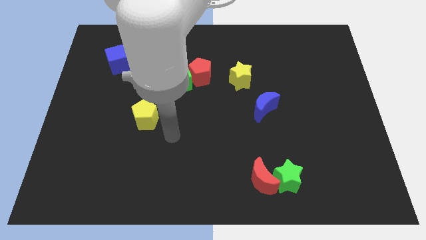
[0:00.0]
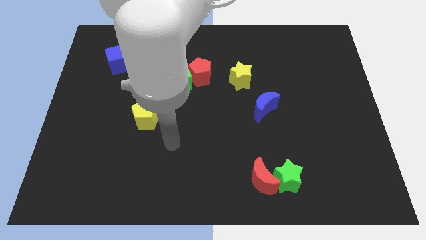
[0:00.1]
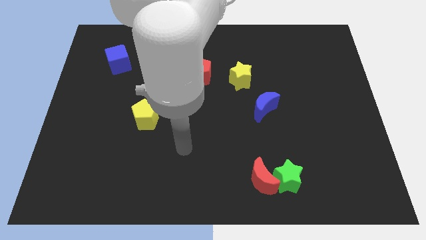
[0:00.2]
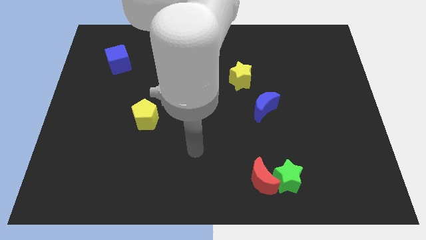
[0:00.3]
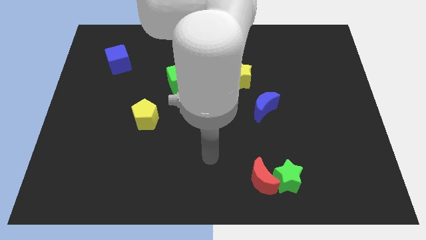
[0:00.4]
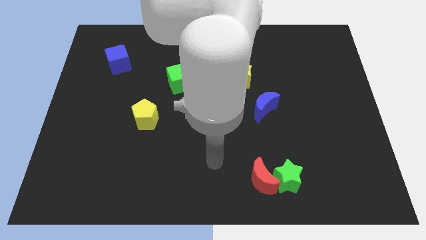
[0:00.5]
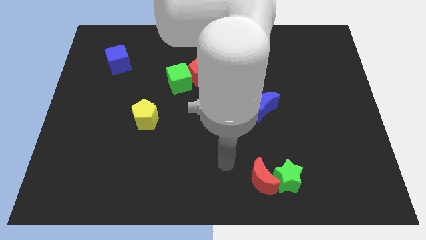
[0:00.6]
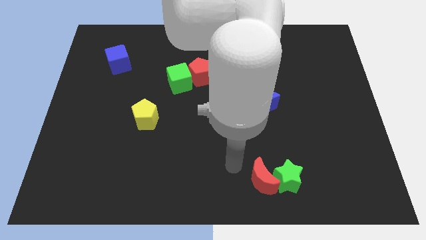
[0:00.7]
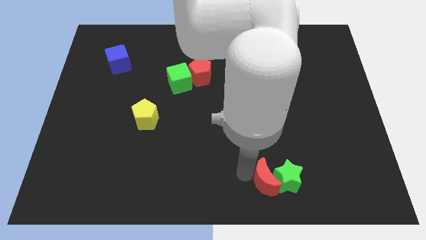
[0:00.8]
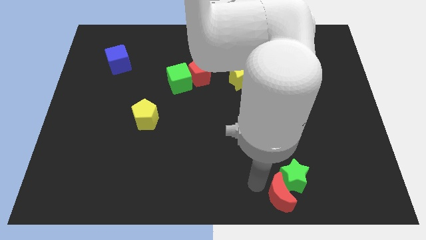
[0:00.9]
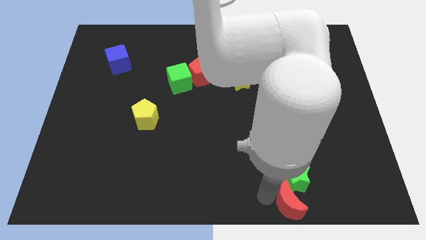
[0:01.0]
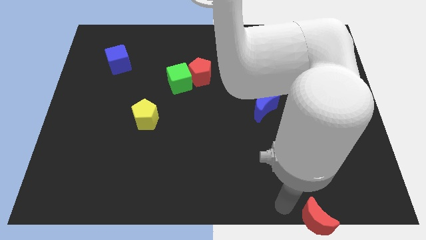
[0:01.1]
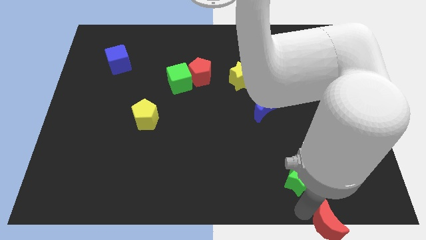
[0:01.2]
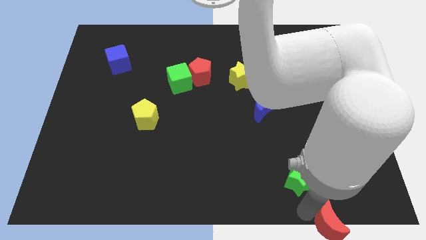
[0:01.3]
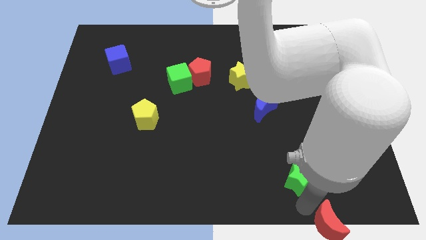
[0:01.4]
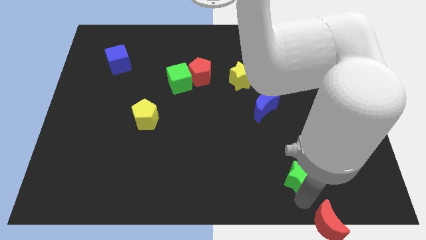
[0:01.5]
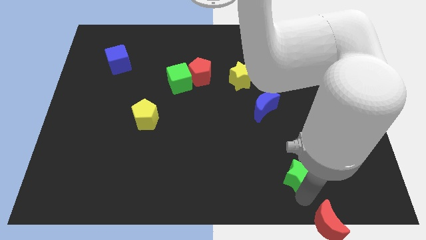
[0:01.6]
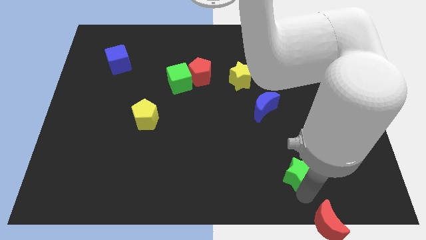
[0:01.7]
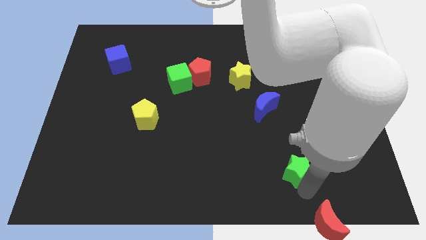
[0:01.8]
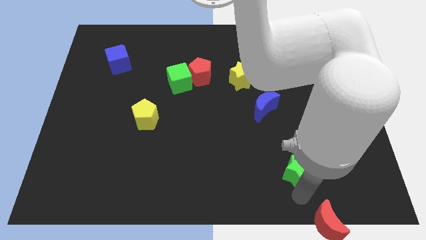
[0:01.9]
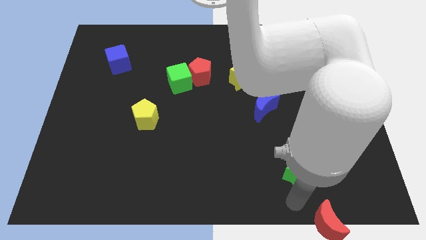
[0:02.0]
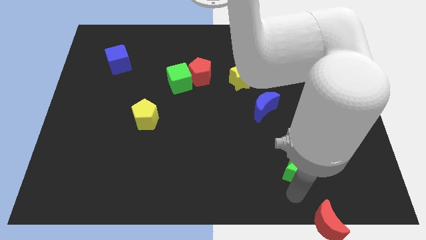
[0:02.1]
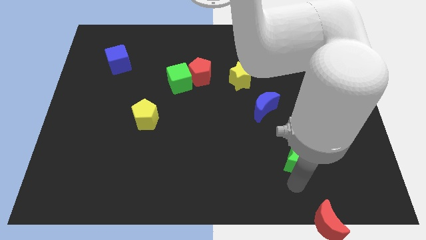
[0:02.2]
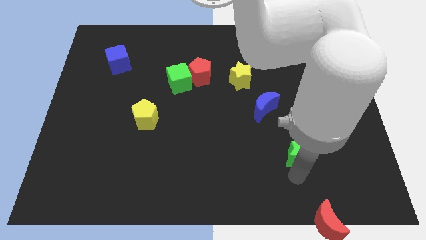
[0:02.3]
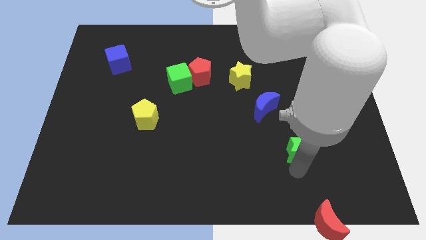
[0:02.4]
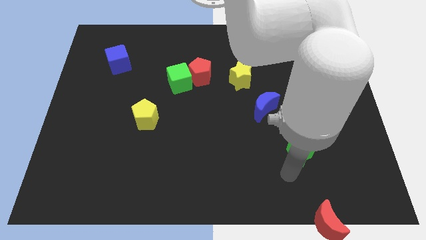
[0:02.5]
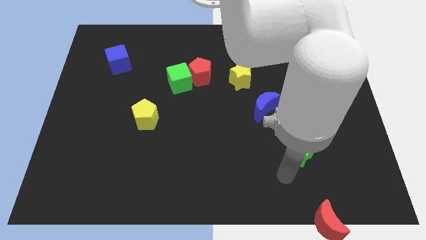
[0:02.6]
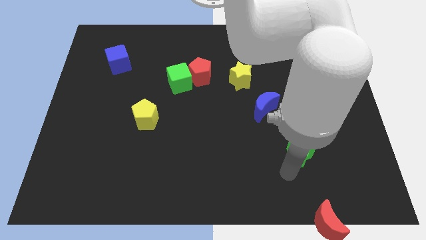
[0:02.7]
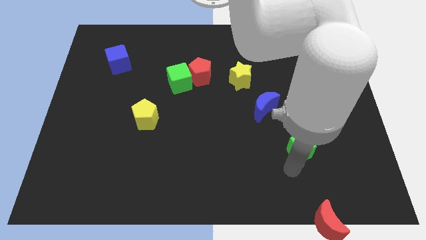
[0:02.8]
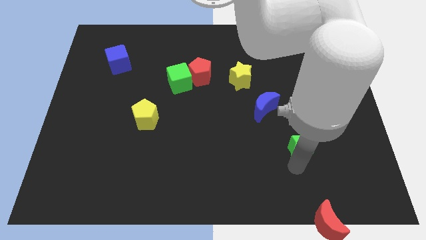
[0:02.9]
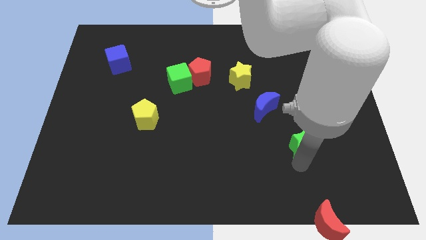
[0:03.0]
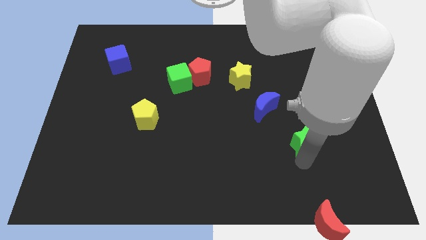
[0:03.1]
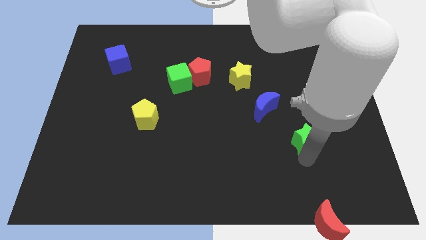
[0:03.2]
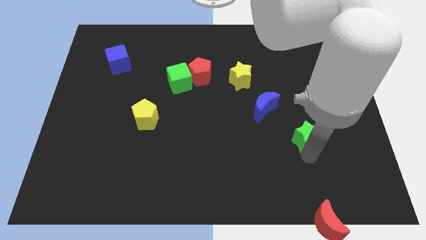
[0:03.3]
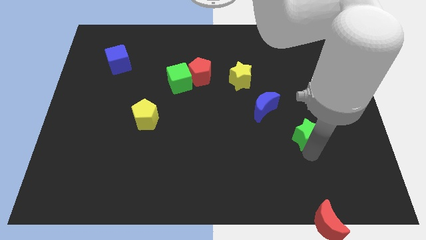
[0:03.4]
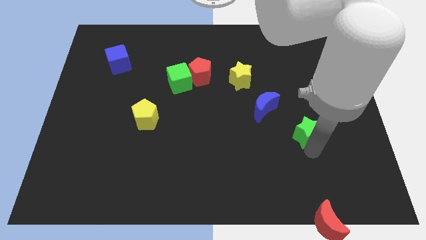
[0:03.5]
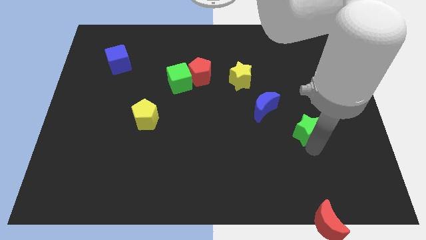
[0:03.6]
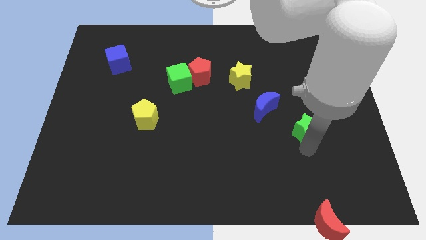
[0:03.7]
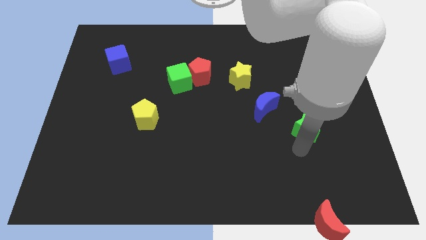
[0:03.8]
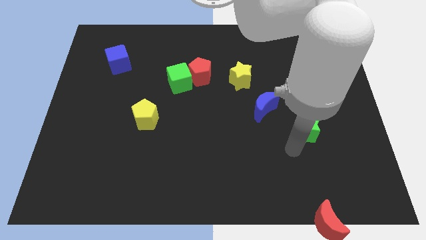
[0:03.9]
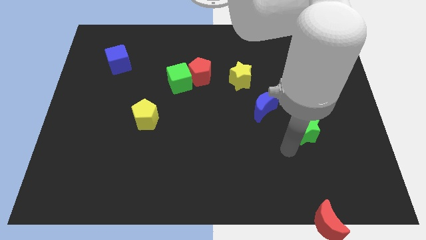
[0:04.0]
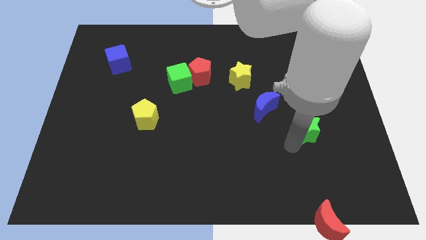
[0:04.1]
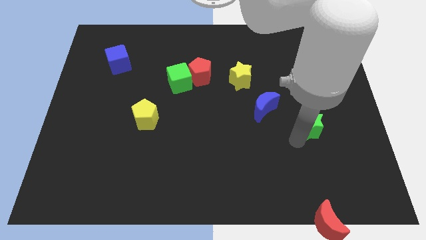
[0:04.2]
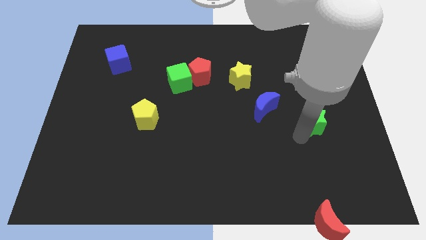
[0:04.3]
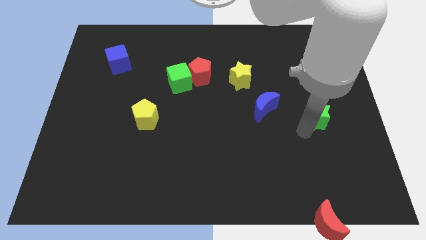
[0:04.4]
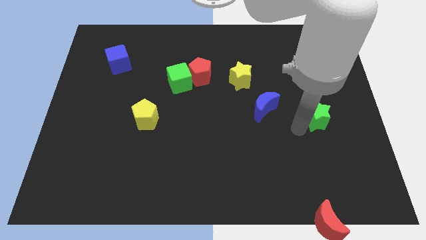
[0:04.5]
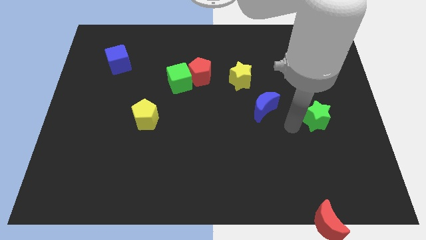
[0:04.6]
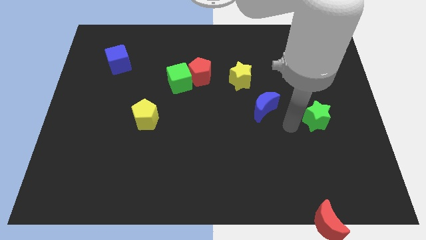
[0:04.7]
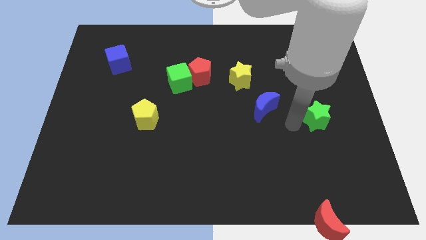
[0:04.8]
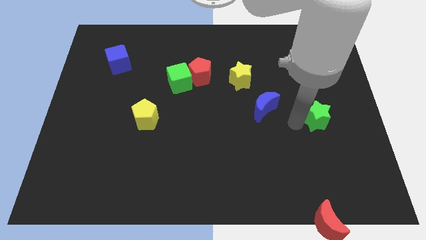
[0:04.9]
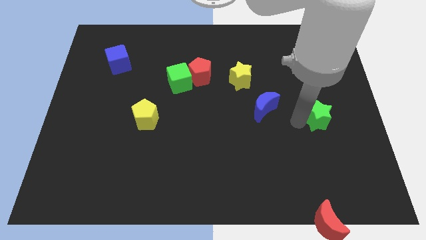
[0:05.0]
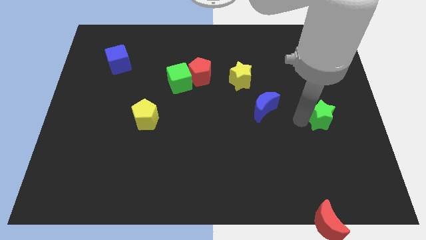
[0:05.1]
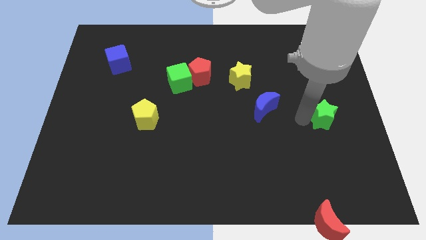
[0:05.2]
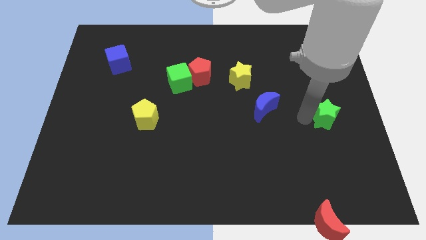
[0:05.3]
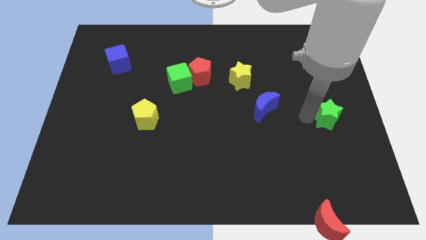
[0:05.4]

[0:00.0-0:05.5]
move the green star to the right side of the board
